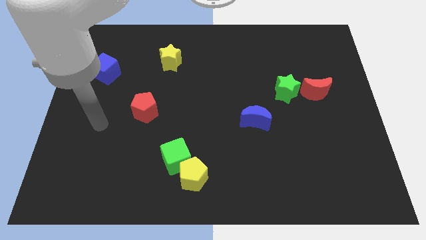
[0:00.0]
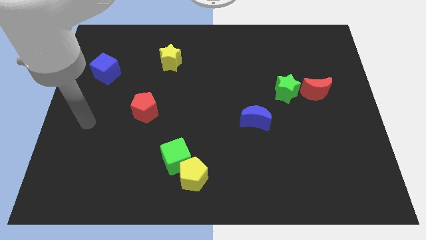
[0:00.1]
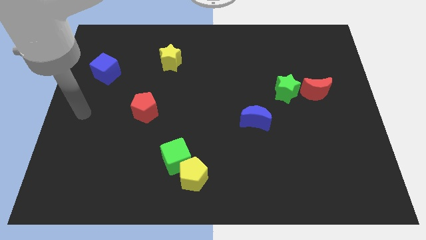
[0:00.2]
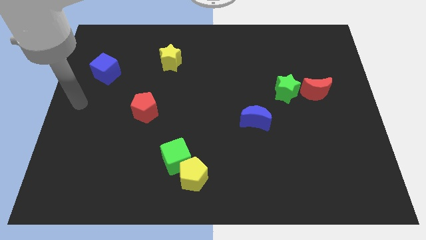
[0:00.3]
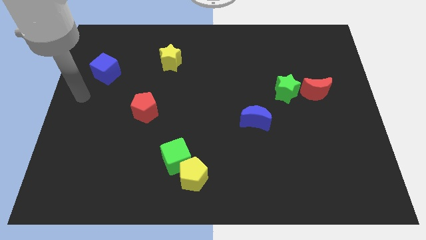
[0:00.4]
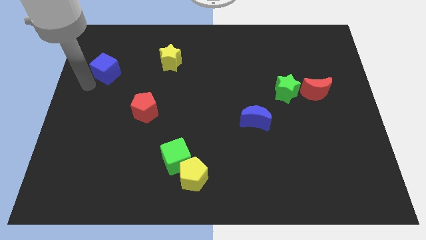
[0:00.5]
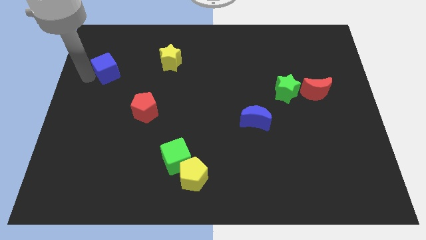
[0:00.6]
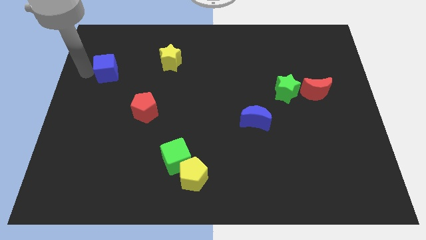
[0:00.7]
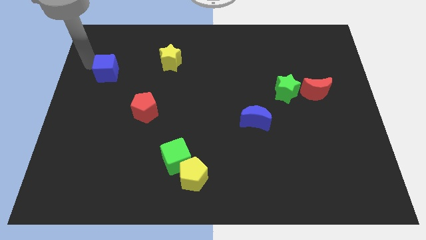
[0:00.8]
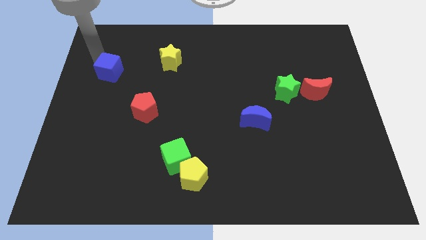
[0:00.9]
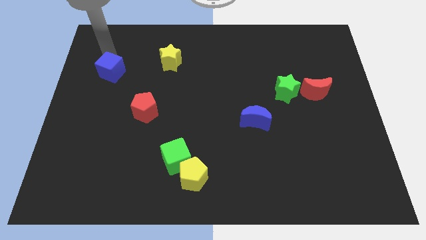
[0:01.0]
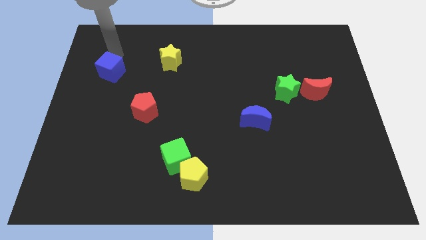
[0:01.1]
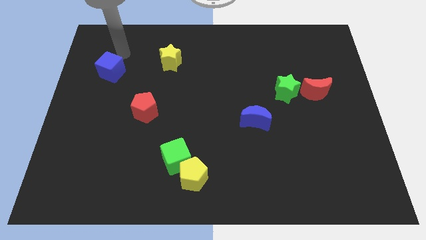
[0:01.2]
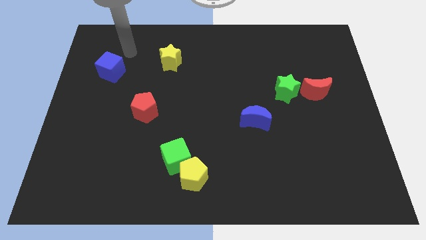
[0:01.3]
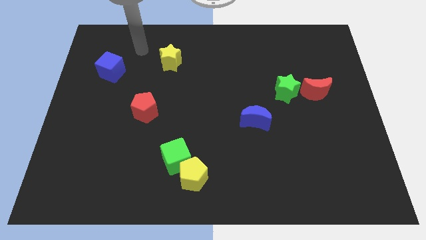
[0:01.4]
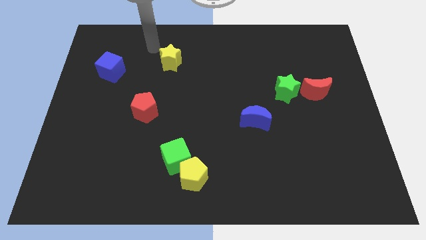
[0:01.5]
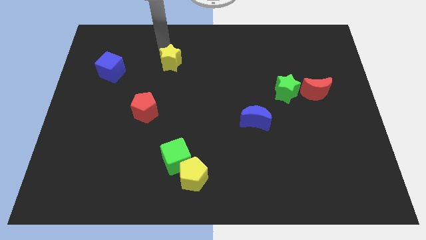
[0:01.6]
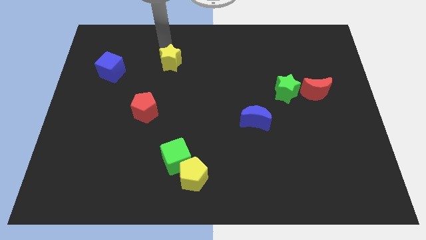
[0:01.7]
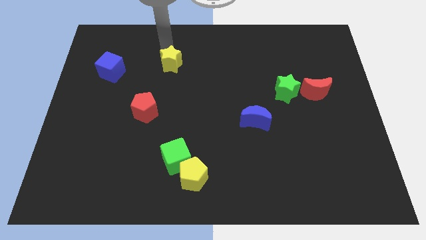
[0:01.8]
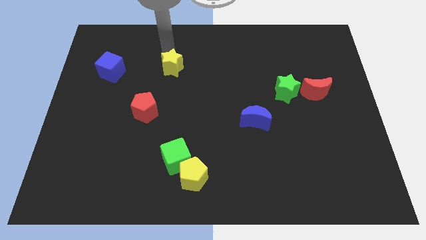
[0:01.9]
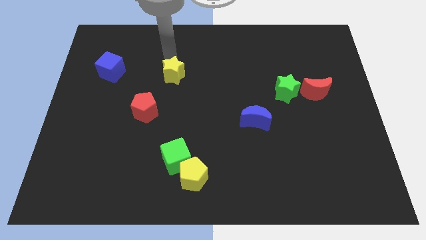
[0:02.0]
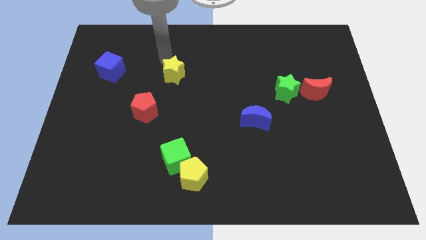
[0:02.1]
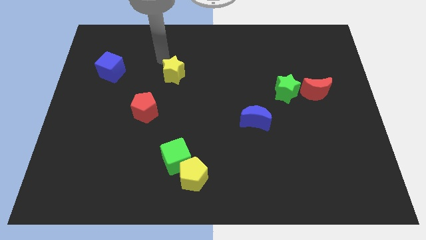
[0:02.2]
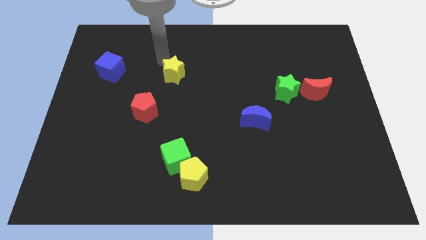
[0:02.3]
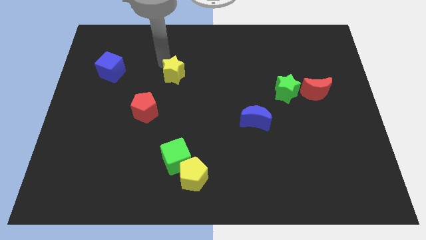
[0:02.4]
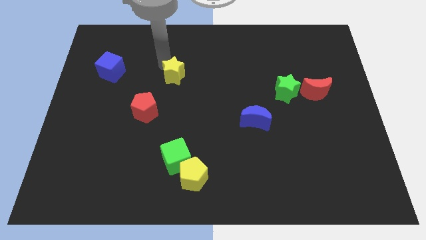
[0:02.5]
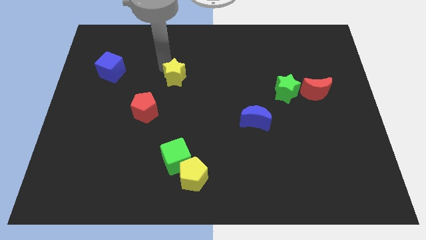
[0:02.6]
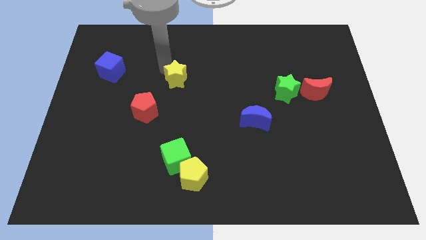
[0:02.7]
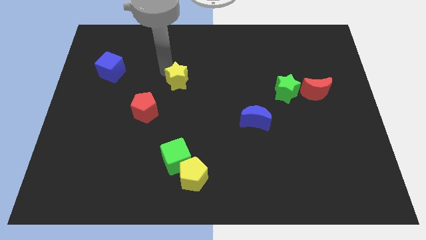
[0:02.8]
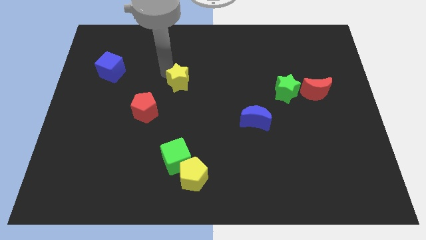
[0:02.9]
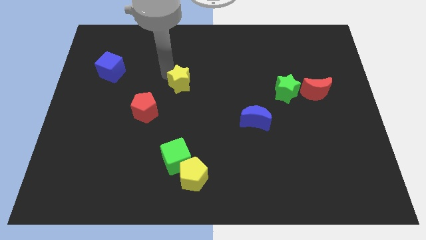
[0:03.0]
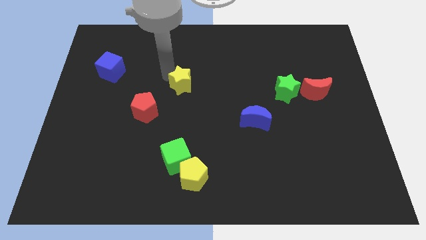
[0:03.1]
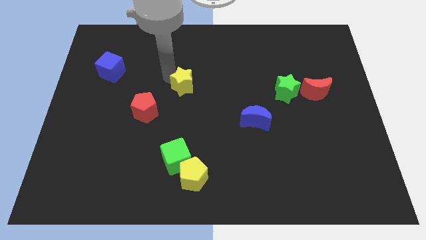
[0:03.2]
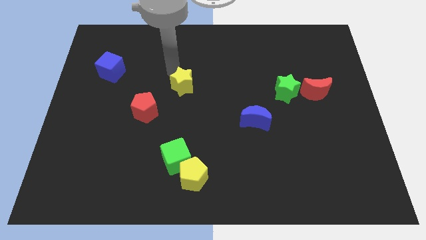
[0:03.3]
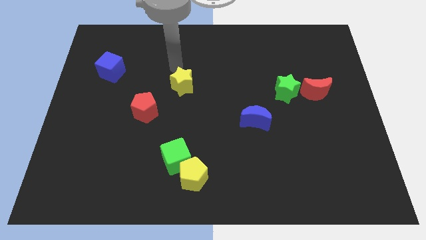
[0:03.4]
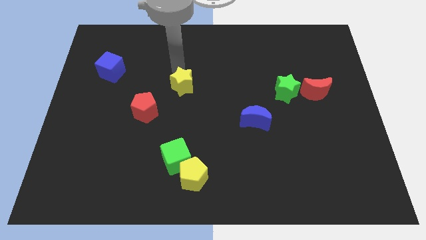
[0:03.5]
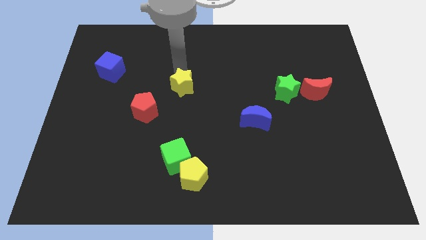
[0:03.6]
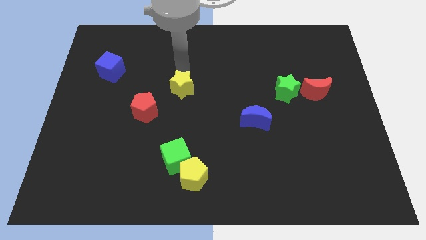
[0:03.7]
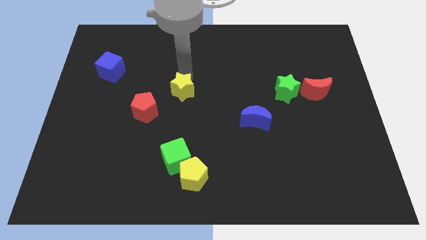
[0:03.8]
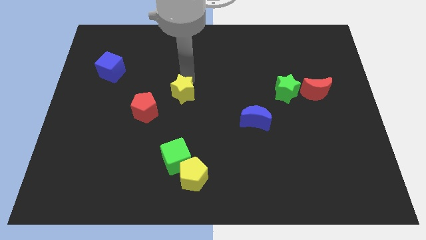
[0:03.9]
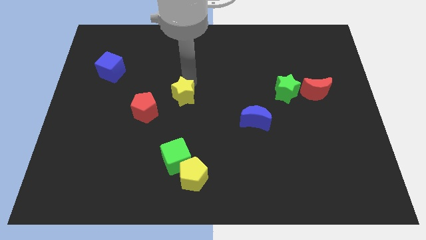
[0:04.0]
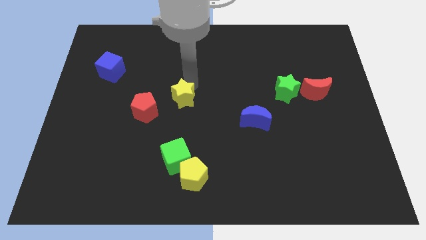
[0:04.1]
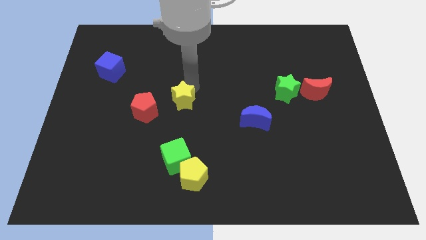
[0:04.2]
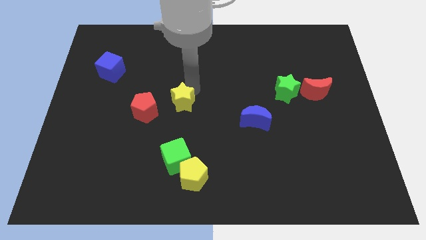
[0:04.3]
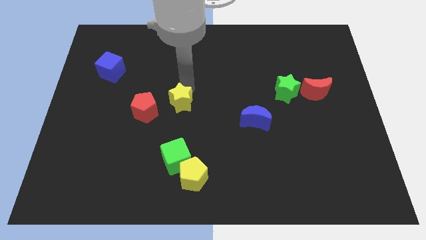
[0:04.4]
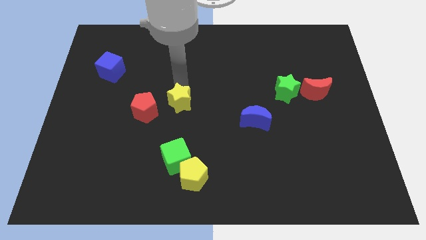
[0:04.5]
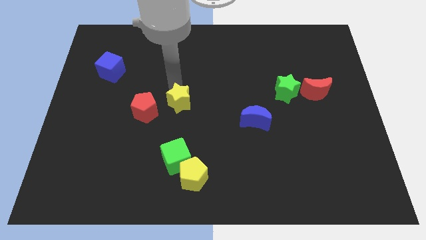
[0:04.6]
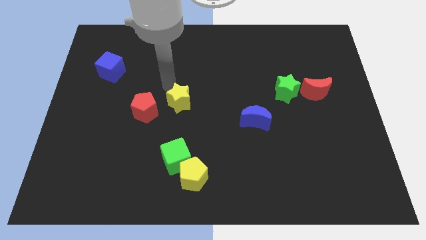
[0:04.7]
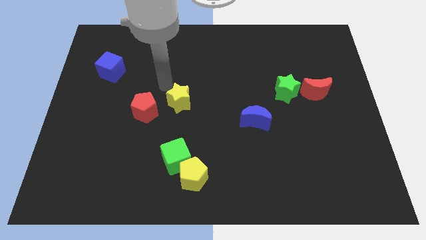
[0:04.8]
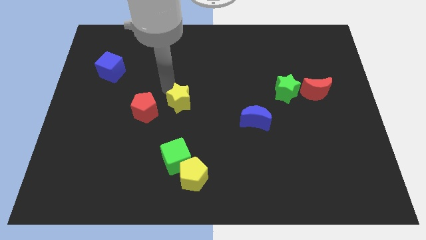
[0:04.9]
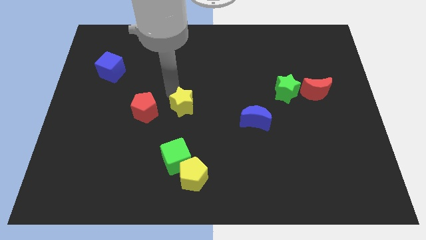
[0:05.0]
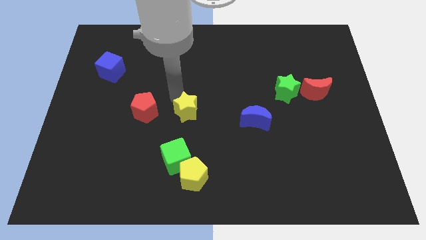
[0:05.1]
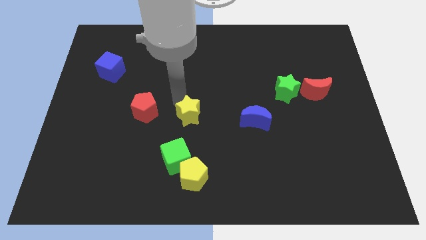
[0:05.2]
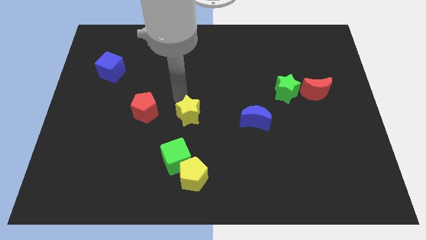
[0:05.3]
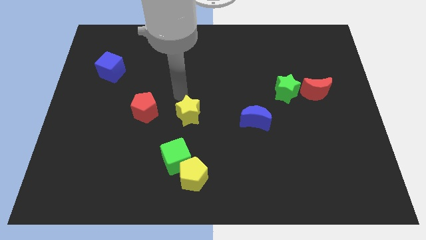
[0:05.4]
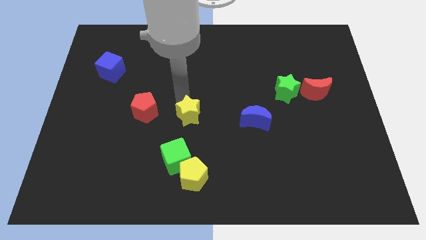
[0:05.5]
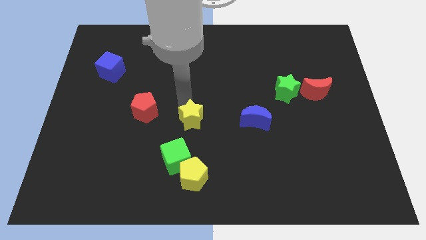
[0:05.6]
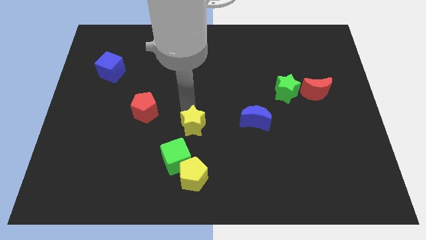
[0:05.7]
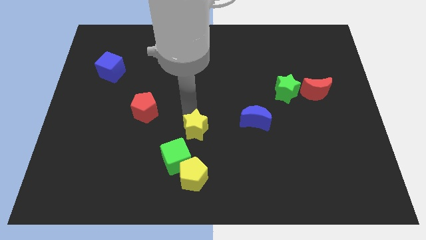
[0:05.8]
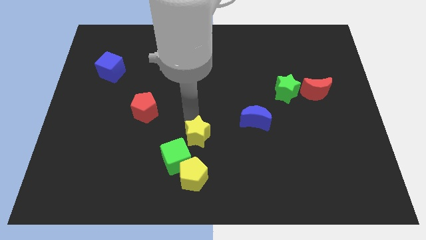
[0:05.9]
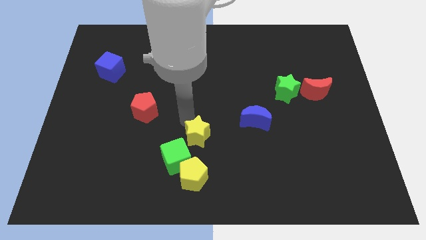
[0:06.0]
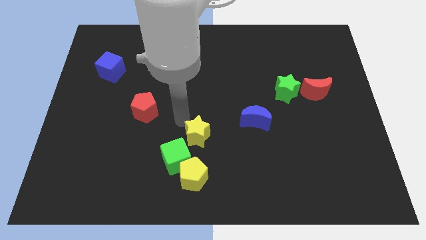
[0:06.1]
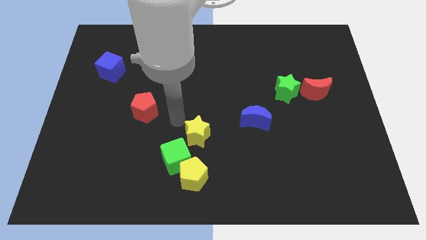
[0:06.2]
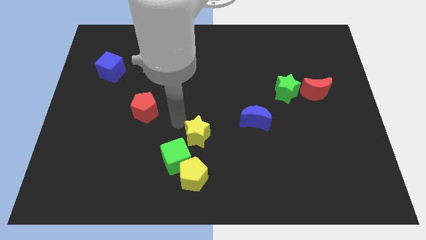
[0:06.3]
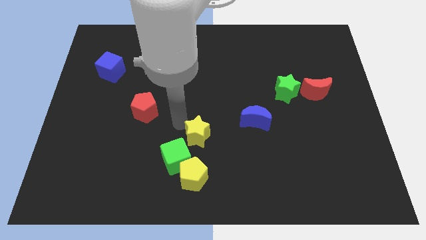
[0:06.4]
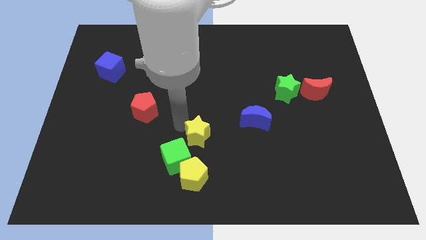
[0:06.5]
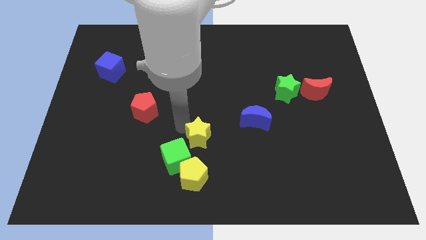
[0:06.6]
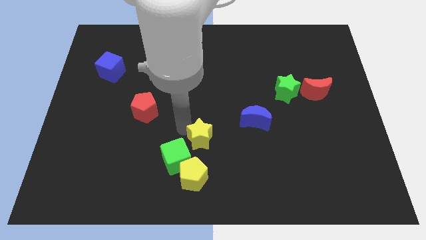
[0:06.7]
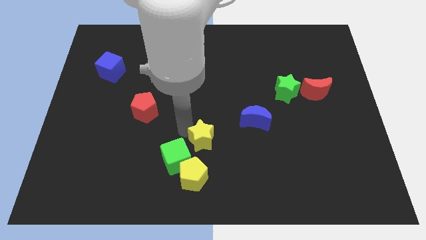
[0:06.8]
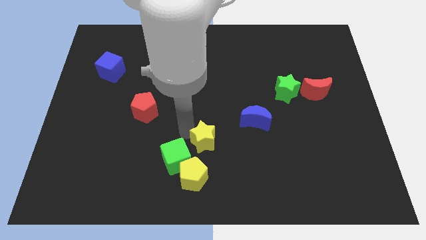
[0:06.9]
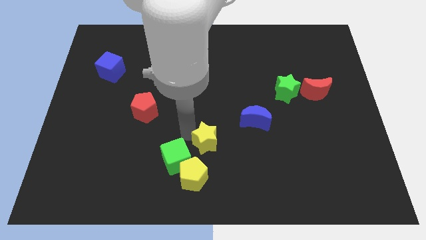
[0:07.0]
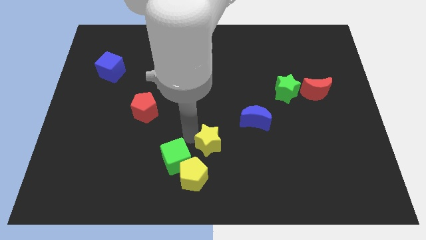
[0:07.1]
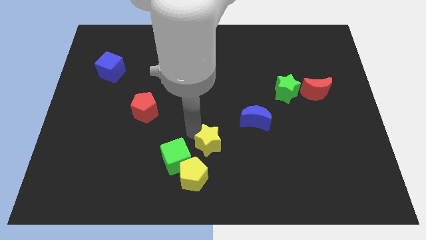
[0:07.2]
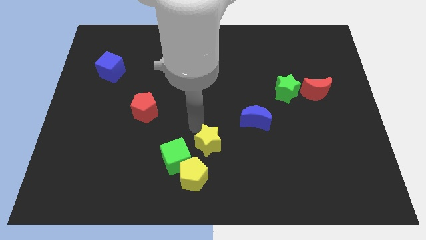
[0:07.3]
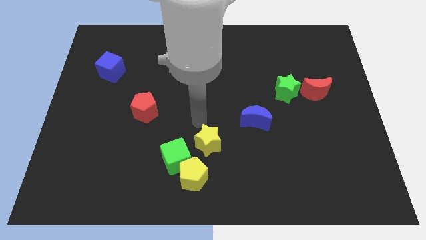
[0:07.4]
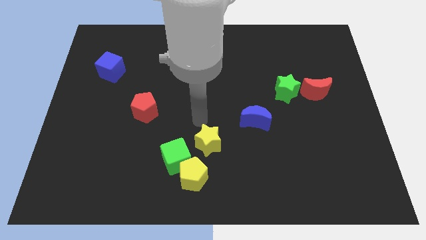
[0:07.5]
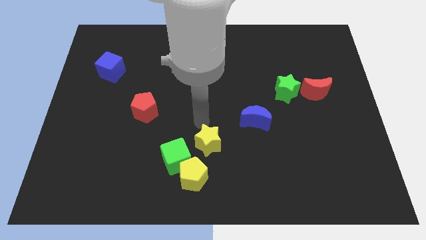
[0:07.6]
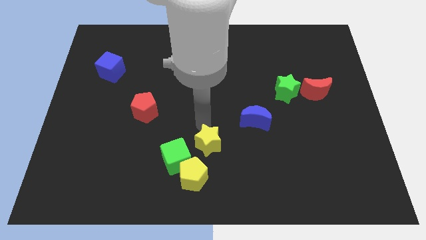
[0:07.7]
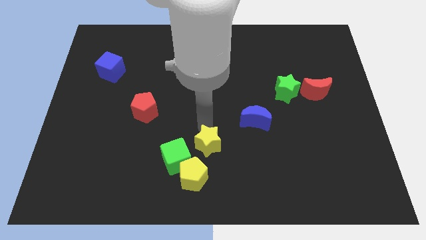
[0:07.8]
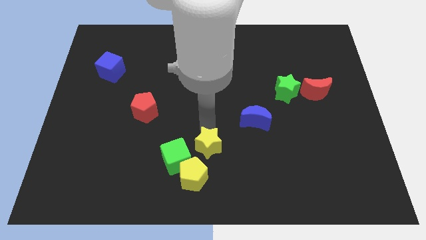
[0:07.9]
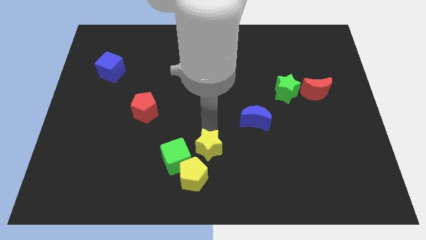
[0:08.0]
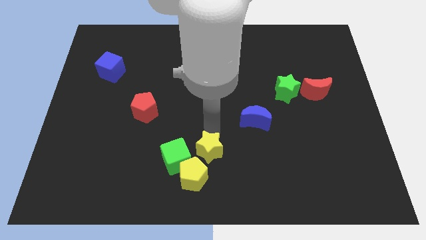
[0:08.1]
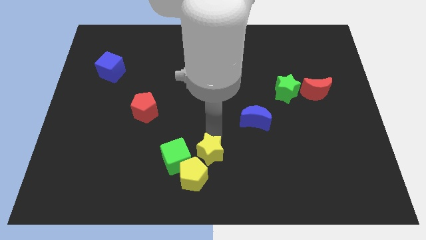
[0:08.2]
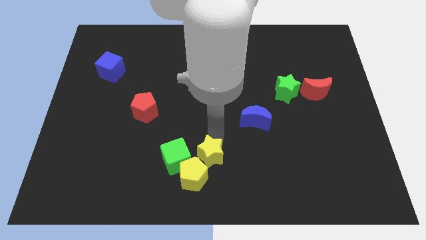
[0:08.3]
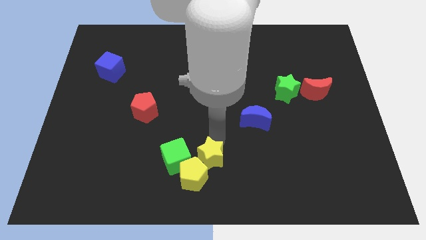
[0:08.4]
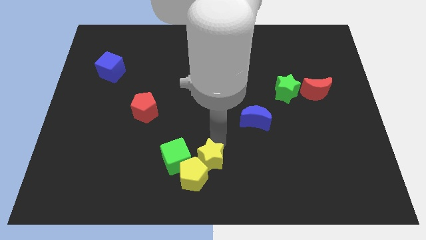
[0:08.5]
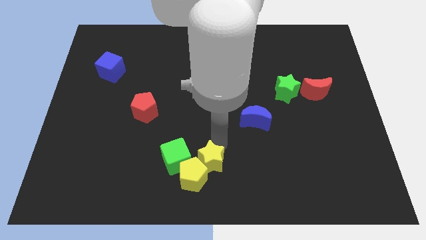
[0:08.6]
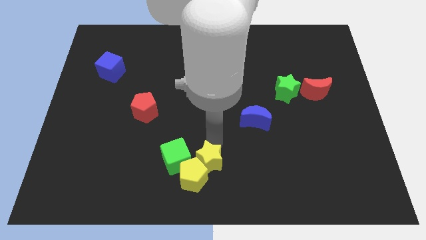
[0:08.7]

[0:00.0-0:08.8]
push the yellow star to the bottom right side of the green cube
